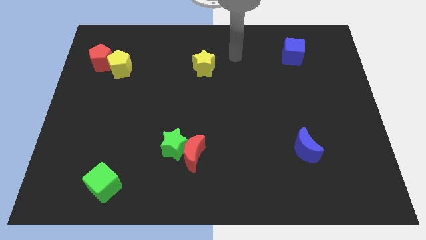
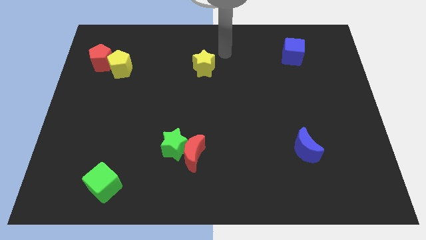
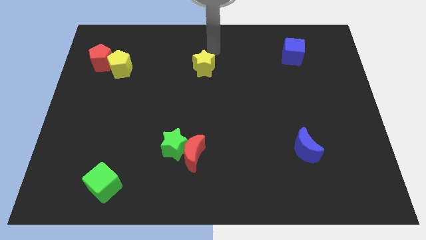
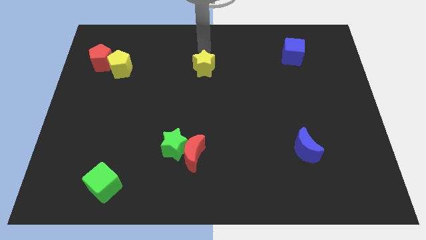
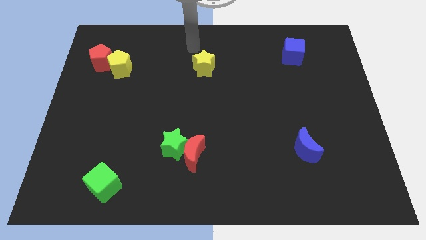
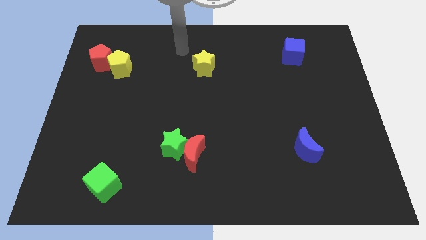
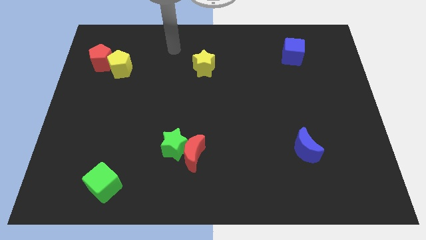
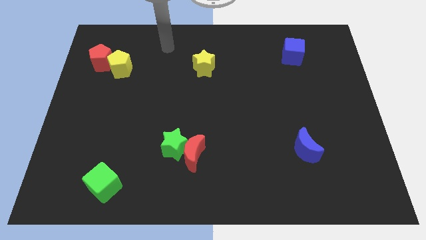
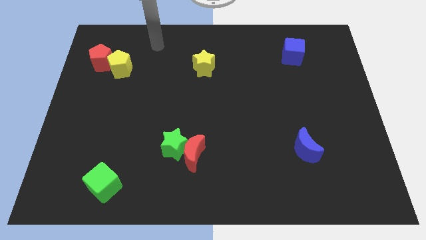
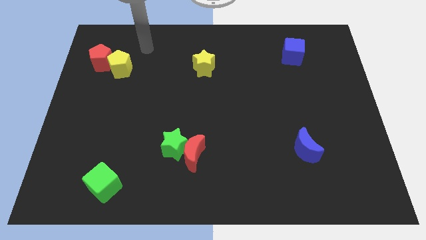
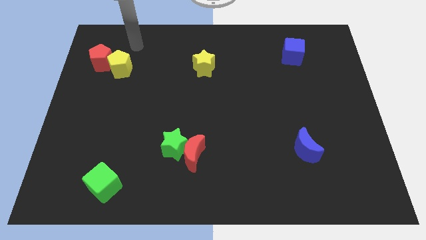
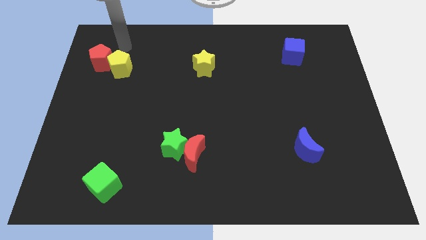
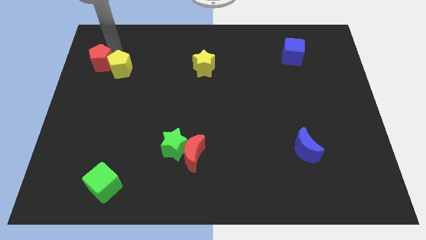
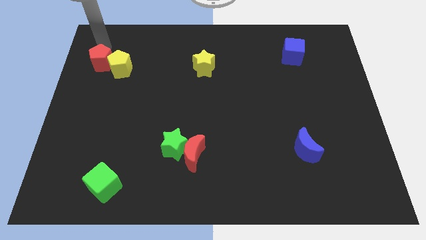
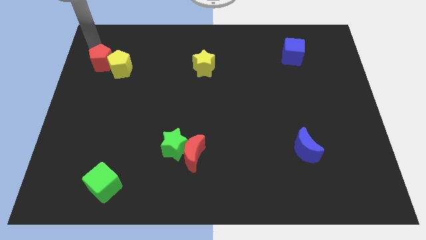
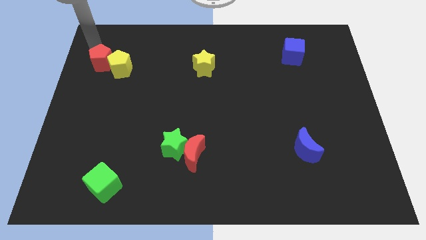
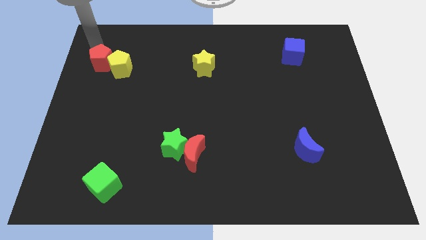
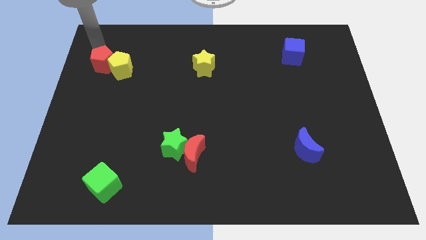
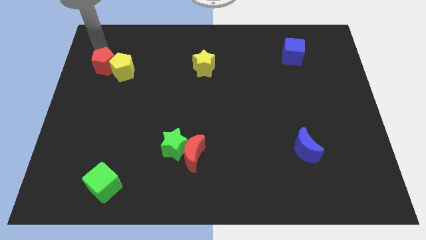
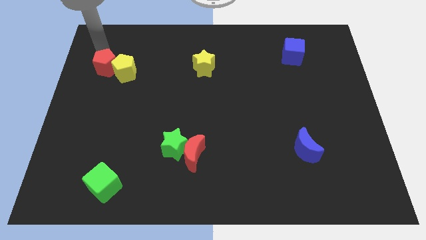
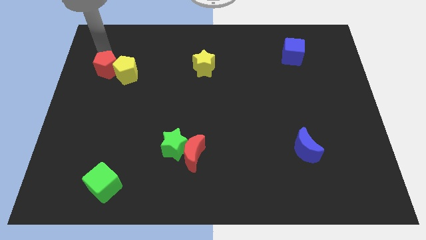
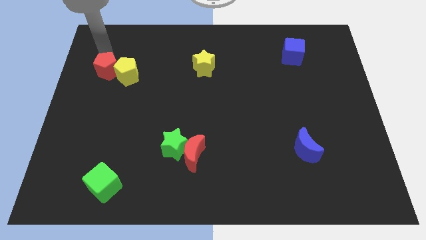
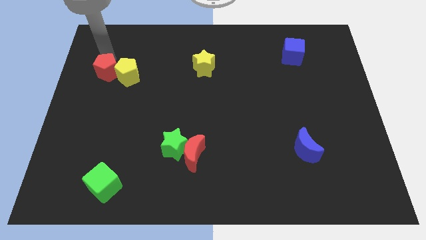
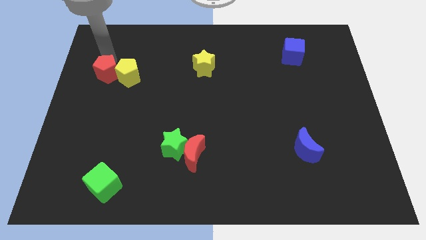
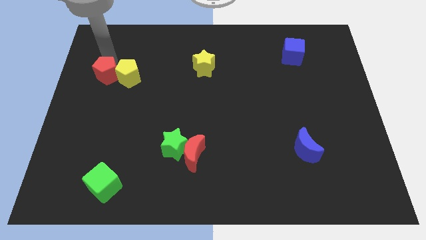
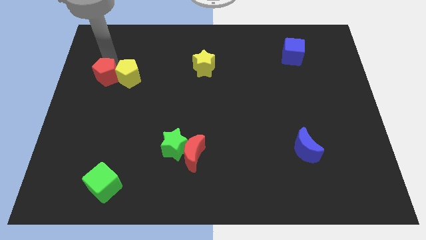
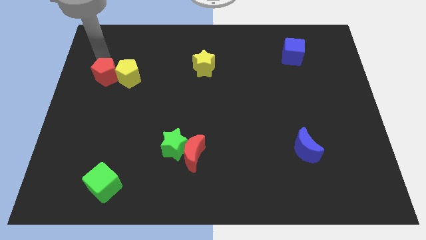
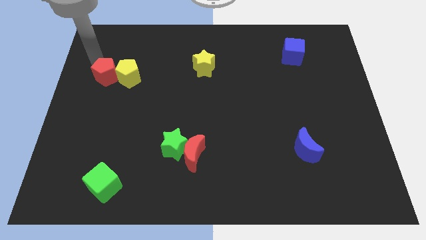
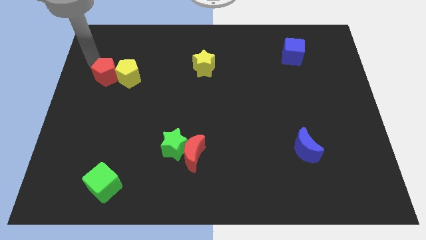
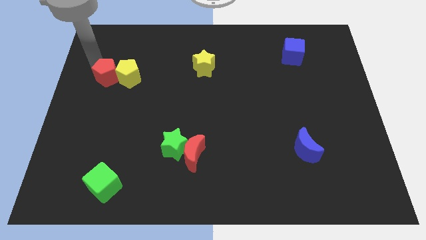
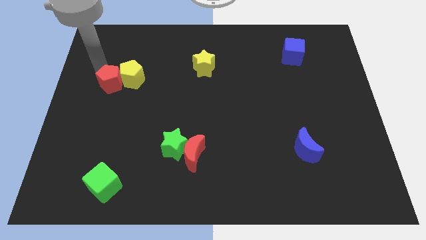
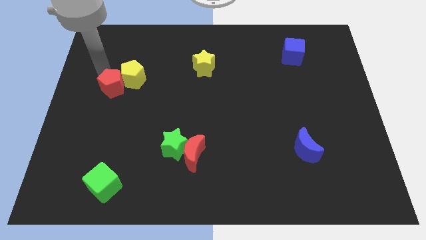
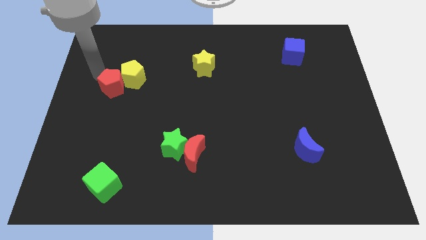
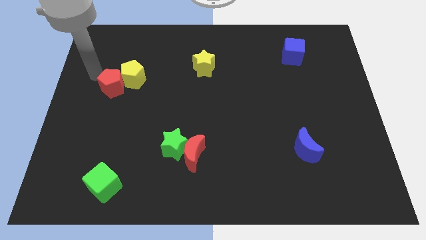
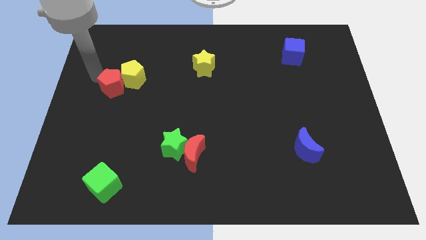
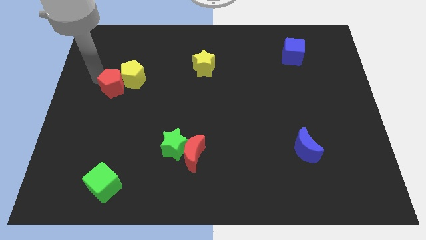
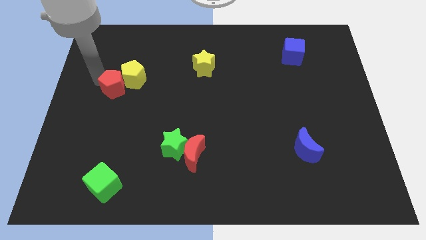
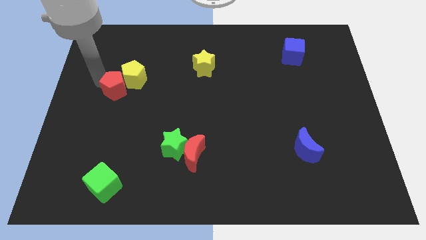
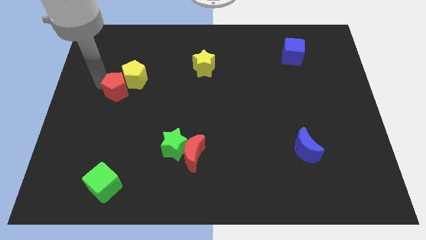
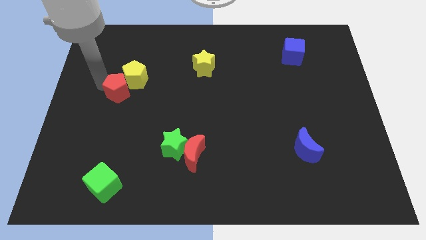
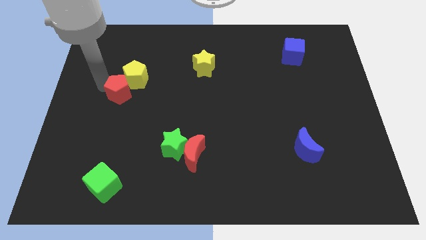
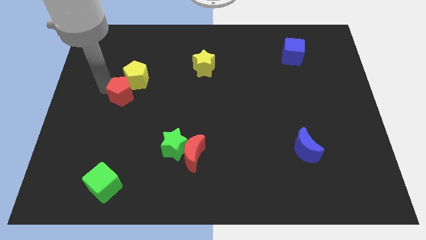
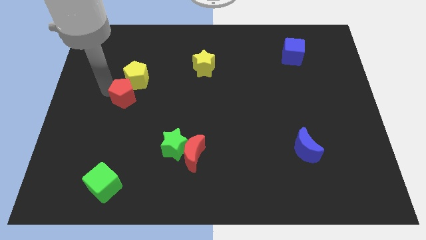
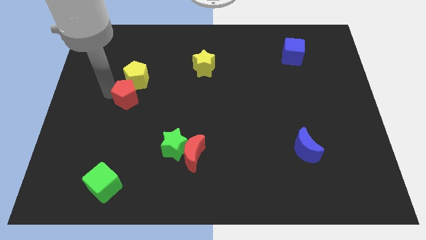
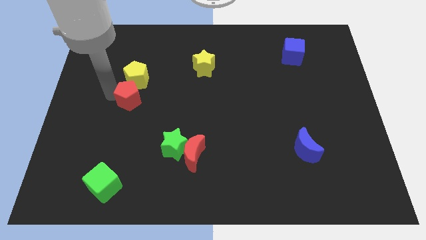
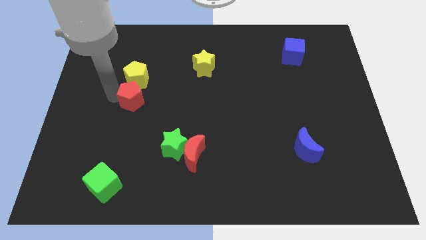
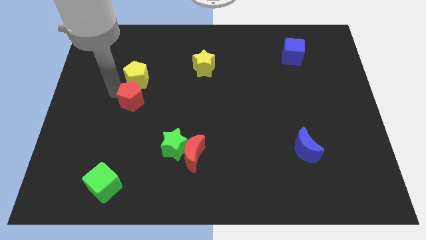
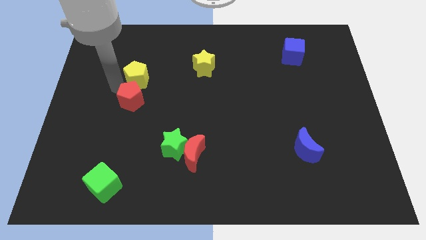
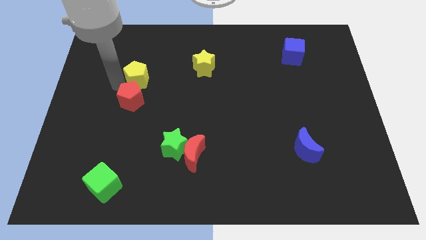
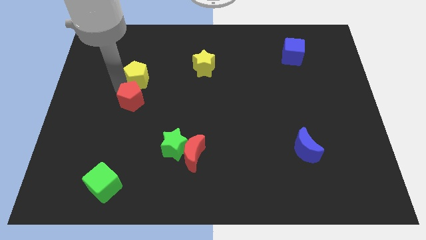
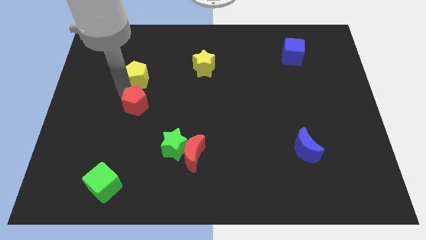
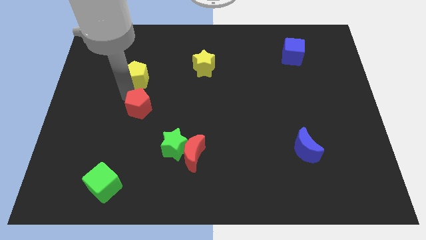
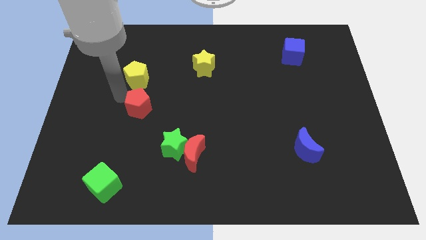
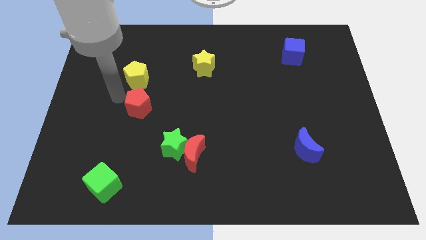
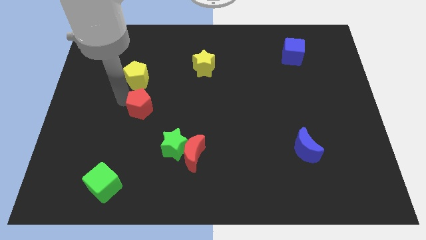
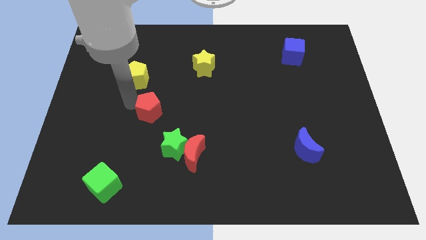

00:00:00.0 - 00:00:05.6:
move the red pentagon downwards and right

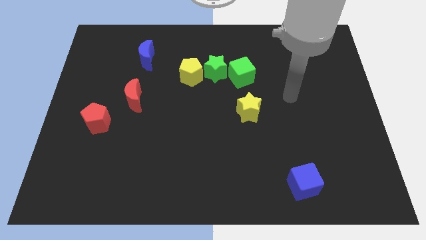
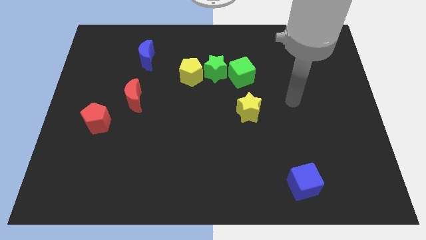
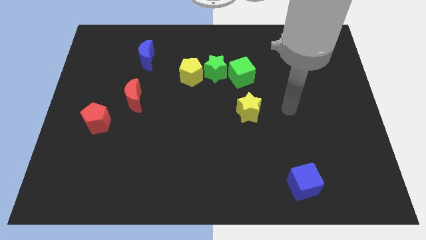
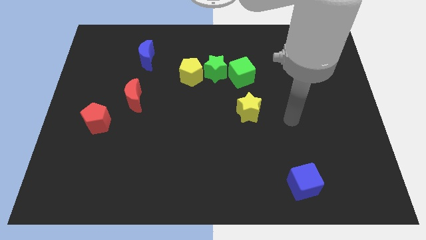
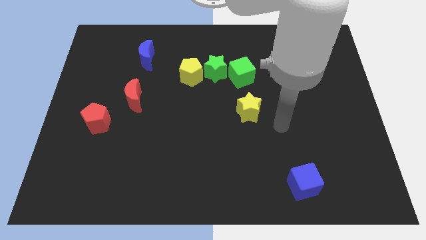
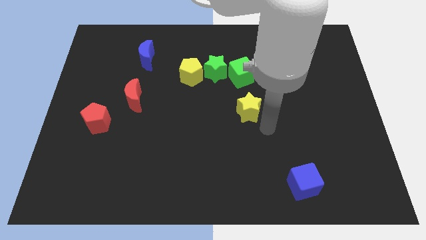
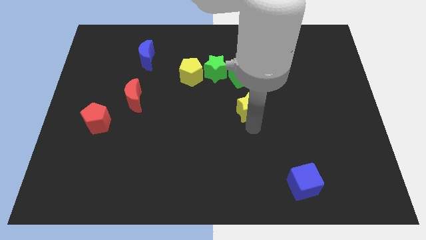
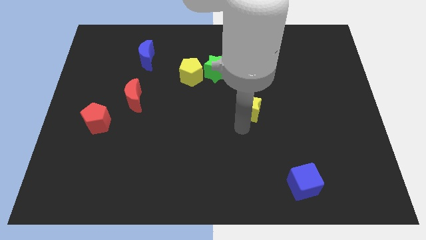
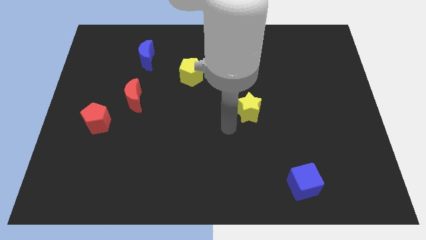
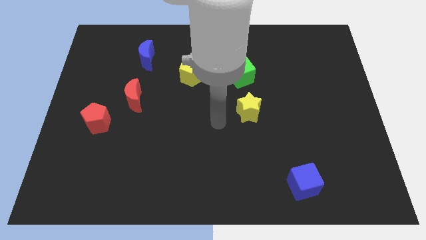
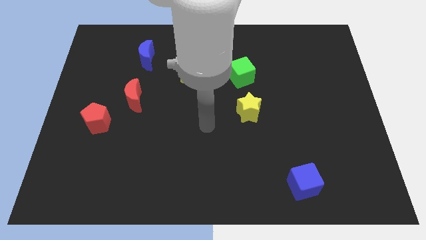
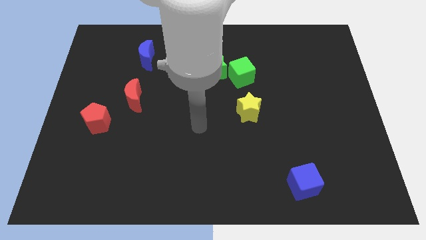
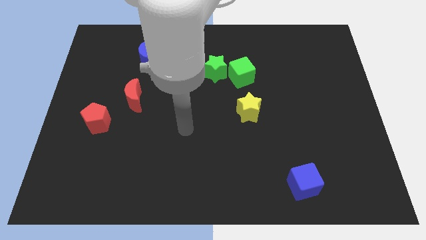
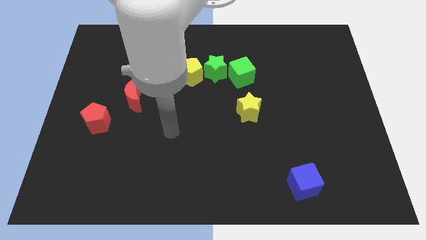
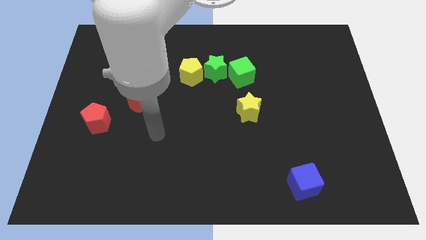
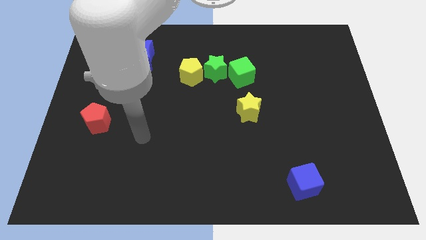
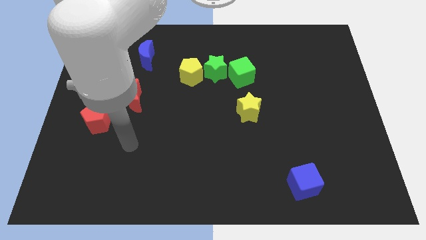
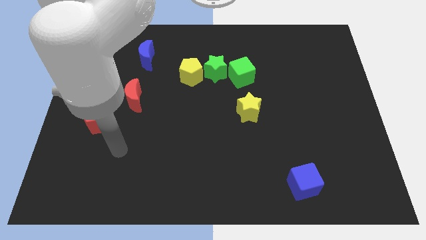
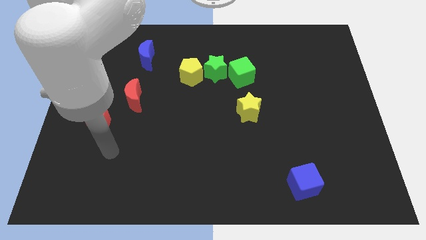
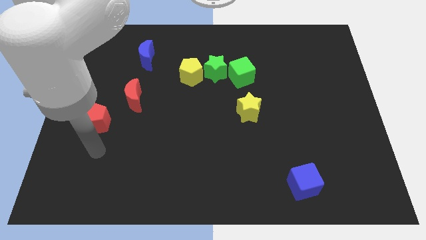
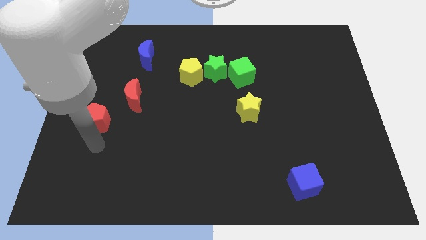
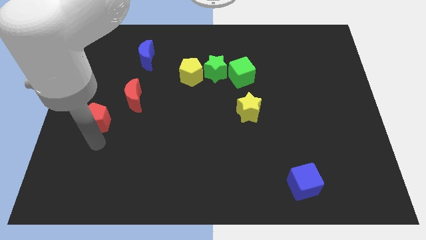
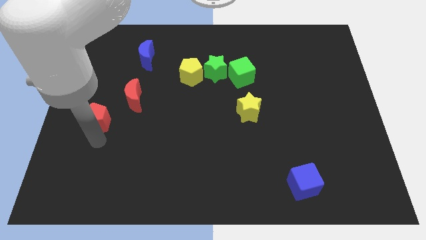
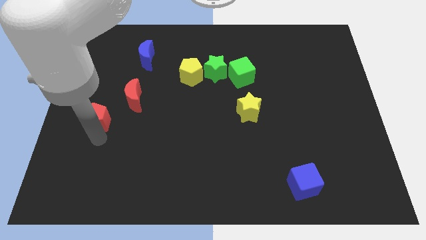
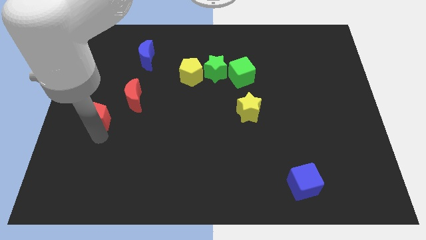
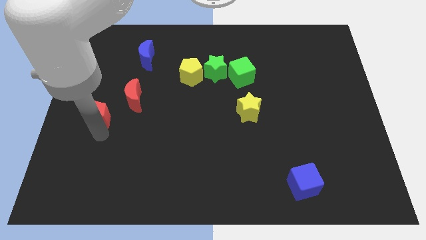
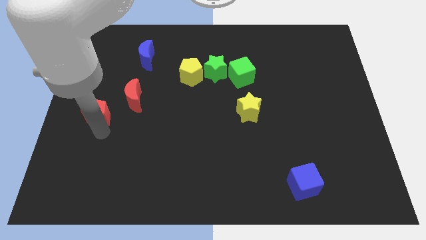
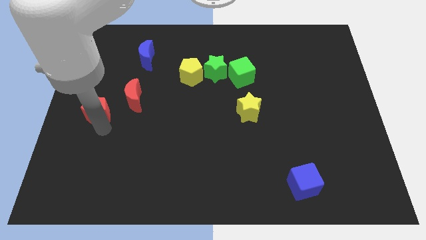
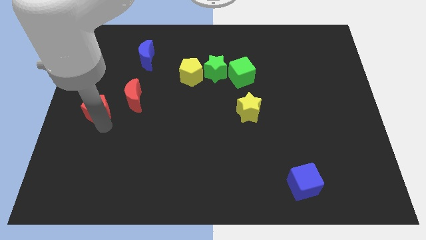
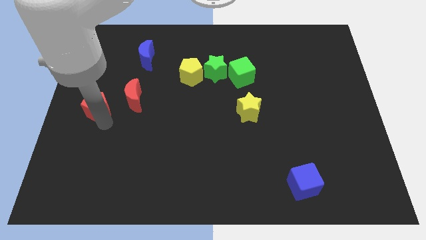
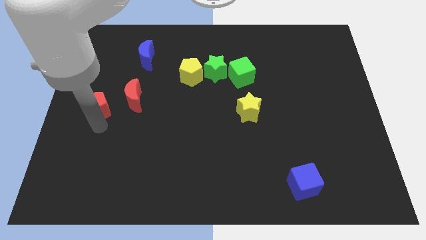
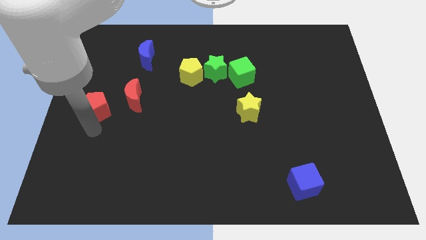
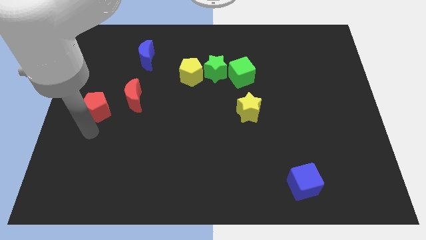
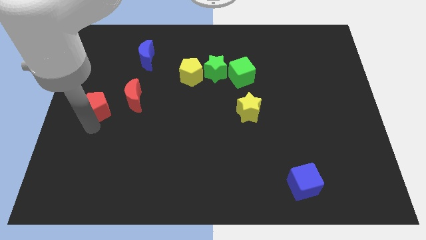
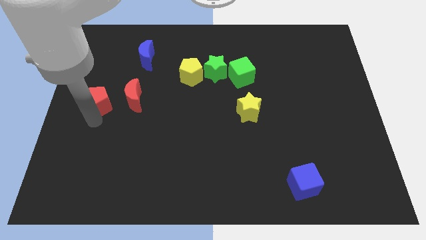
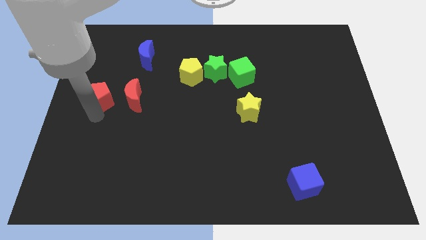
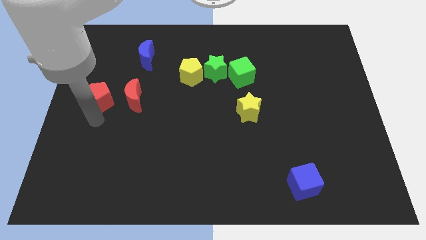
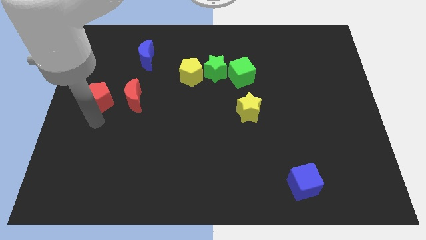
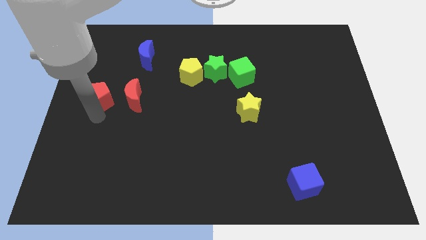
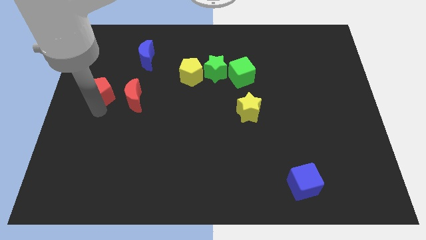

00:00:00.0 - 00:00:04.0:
slightly slide the red pentagon upwards
